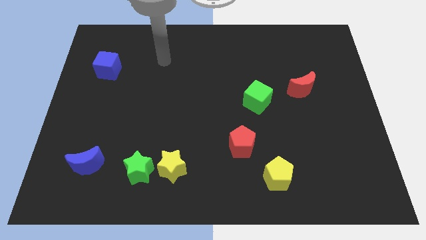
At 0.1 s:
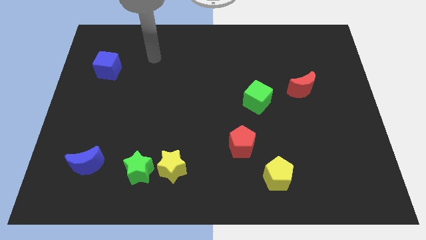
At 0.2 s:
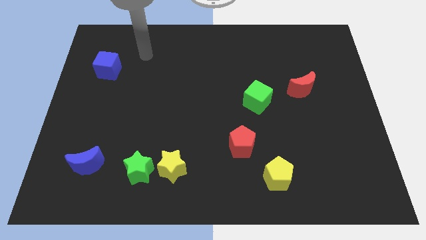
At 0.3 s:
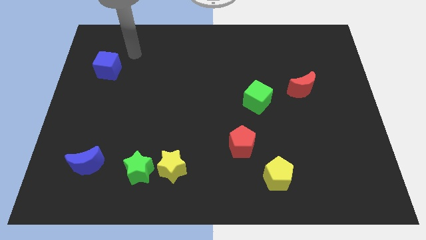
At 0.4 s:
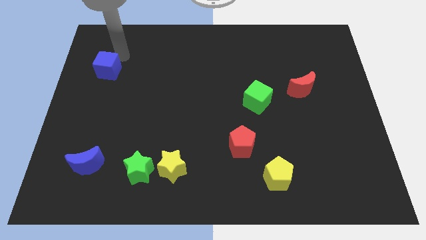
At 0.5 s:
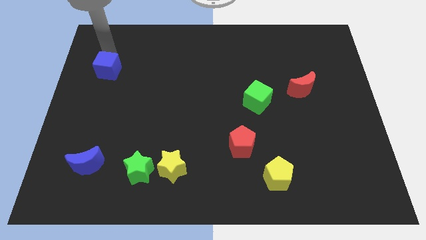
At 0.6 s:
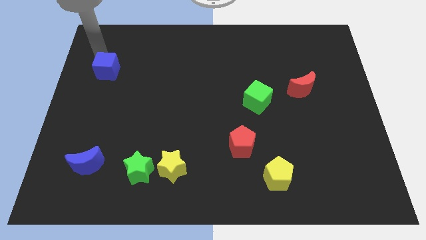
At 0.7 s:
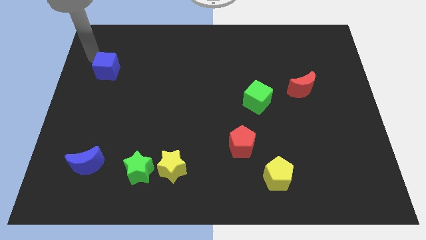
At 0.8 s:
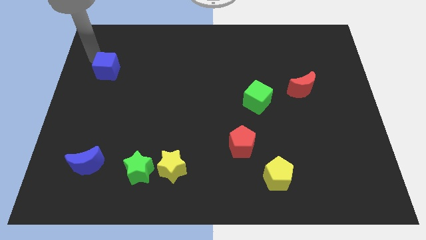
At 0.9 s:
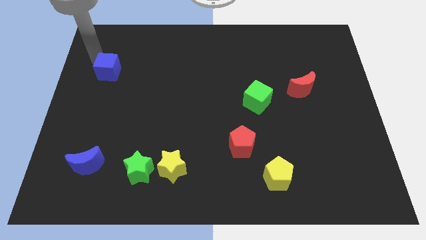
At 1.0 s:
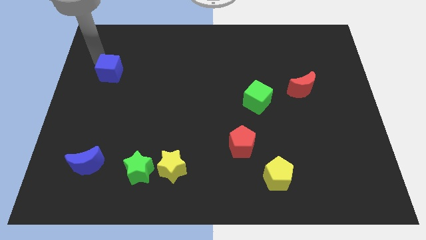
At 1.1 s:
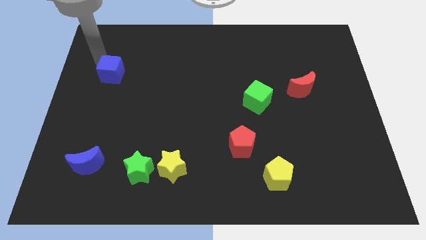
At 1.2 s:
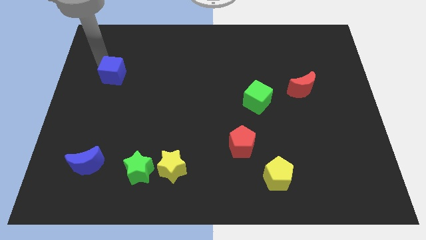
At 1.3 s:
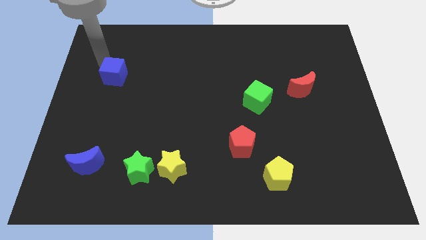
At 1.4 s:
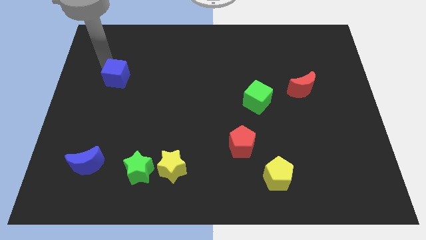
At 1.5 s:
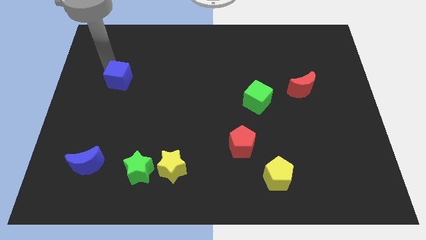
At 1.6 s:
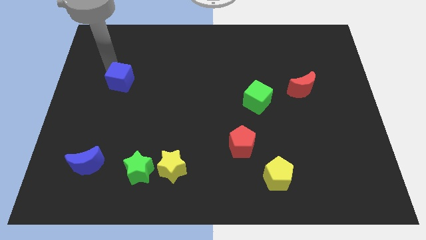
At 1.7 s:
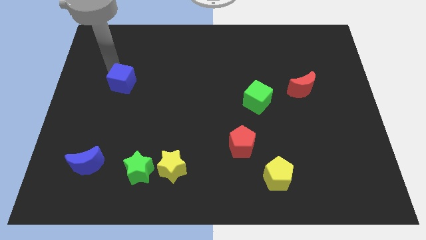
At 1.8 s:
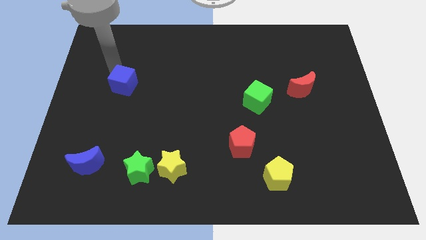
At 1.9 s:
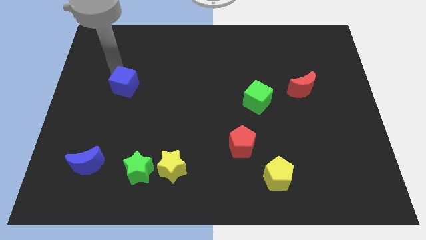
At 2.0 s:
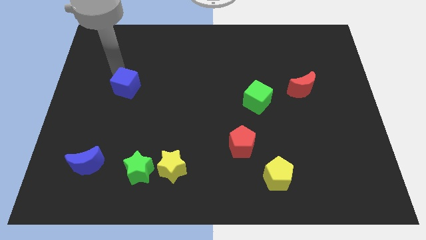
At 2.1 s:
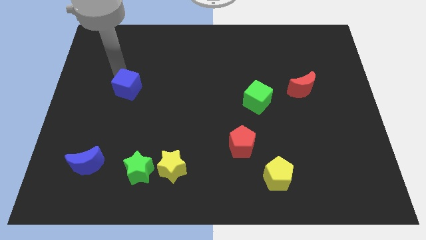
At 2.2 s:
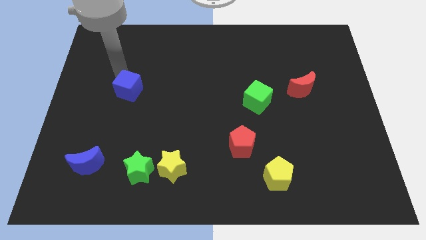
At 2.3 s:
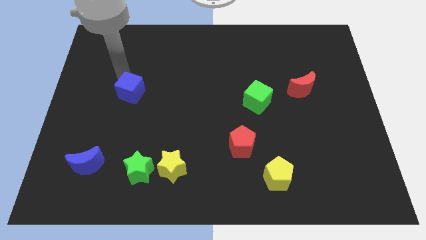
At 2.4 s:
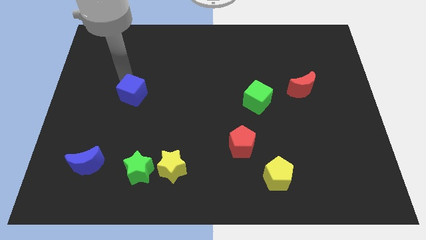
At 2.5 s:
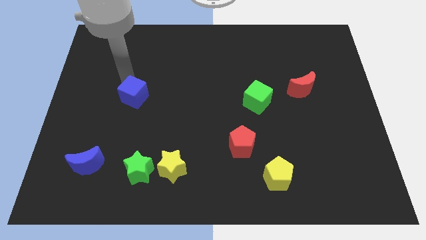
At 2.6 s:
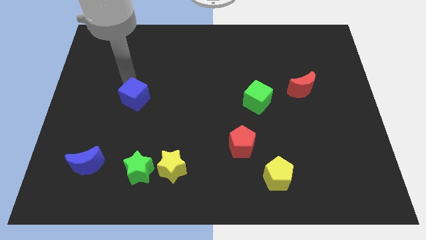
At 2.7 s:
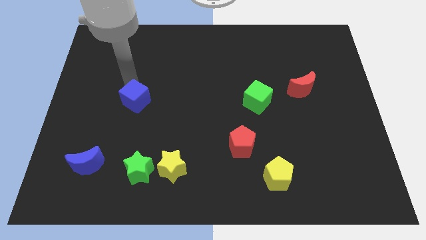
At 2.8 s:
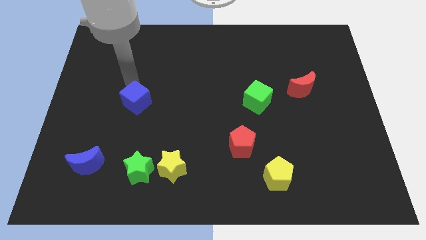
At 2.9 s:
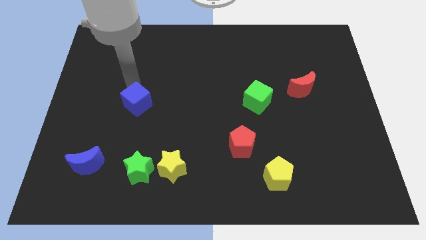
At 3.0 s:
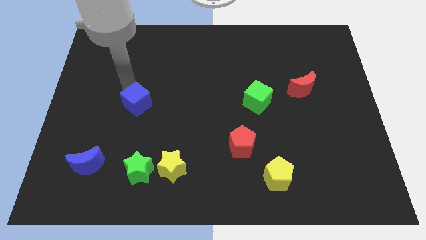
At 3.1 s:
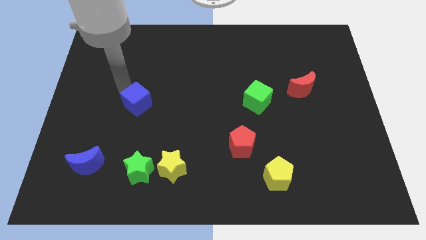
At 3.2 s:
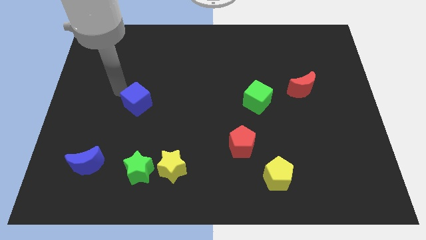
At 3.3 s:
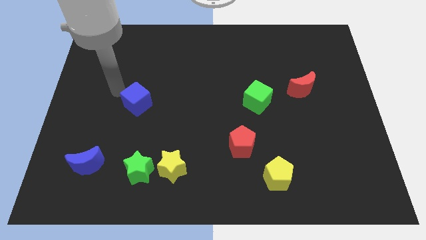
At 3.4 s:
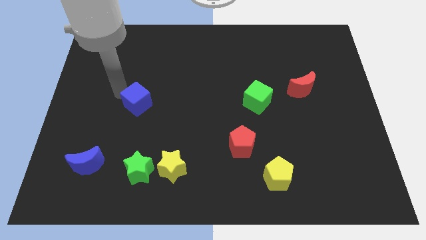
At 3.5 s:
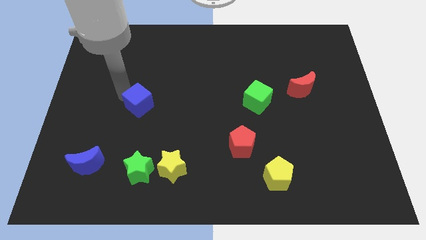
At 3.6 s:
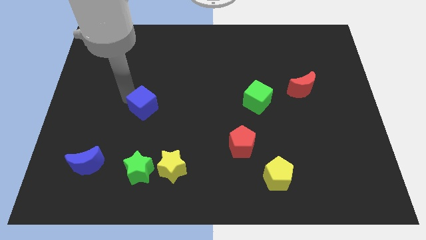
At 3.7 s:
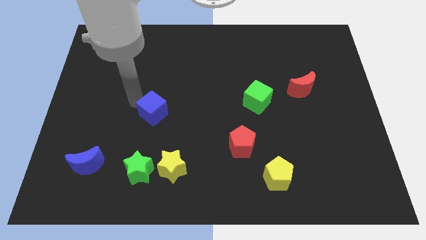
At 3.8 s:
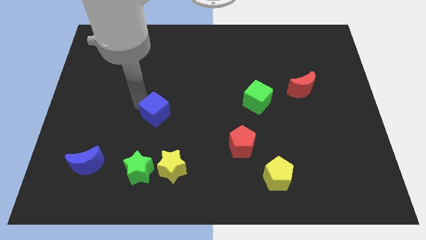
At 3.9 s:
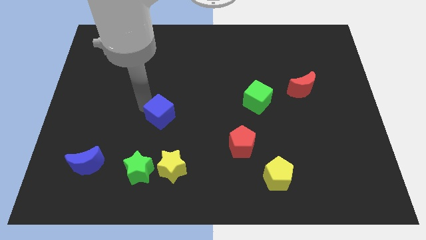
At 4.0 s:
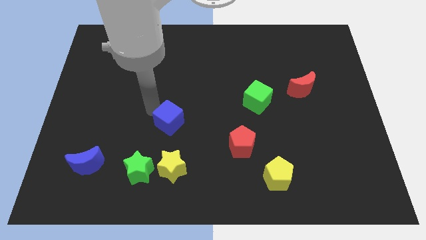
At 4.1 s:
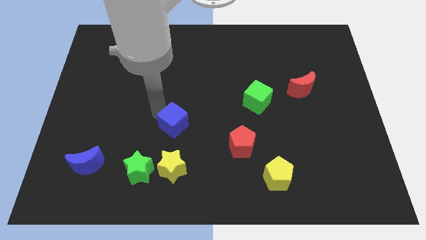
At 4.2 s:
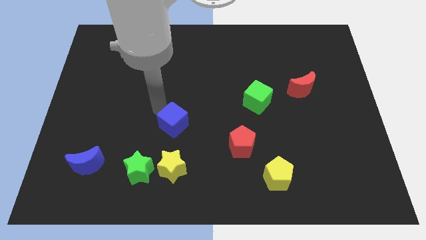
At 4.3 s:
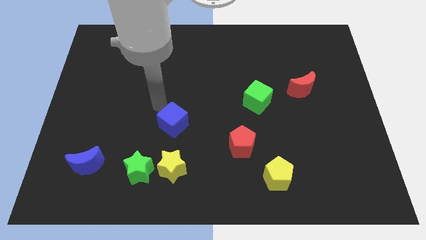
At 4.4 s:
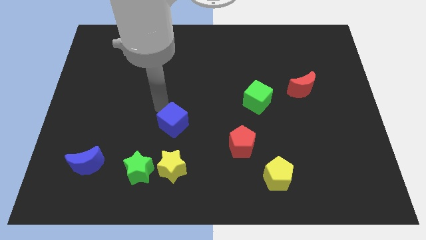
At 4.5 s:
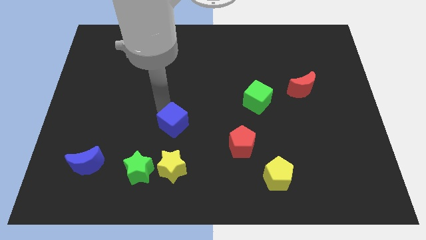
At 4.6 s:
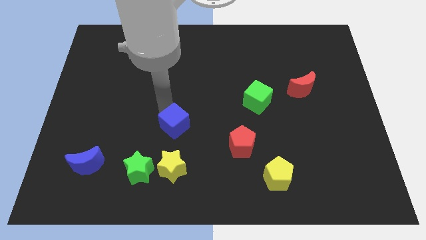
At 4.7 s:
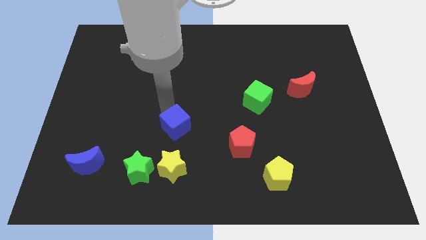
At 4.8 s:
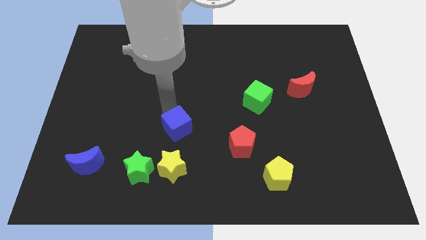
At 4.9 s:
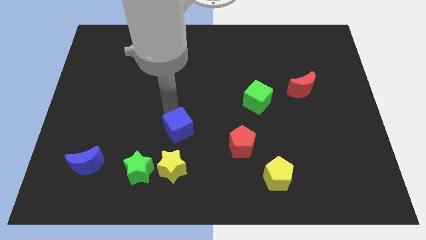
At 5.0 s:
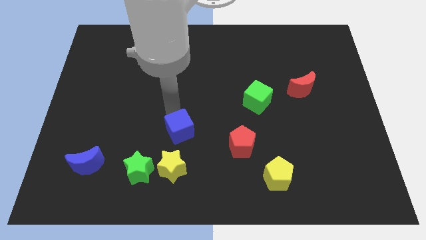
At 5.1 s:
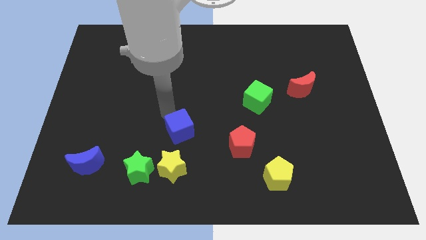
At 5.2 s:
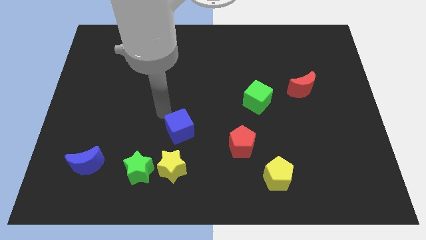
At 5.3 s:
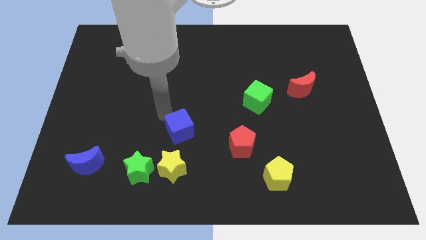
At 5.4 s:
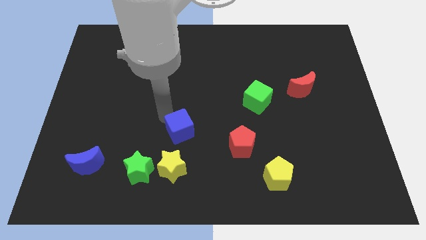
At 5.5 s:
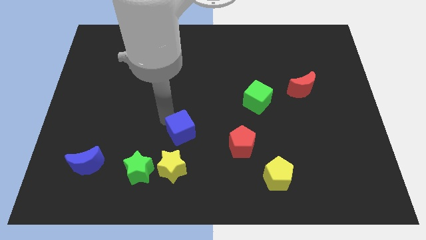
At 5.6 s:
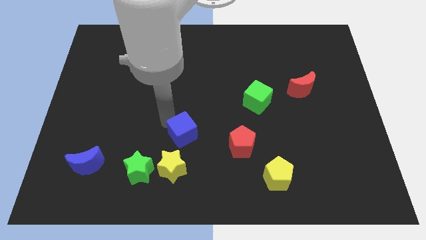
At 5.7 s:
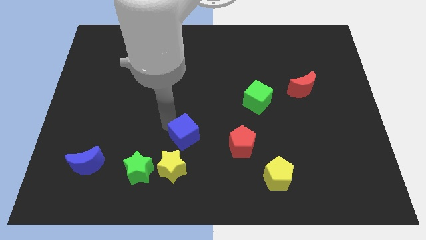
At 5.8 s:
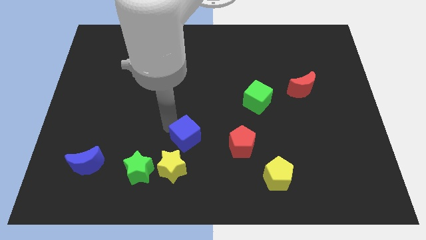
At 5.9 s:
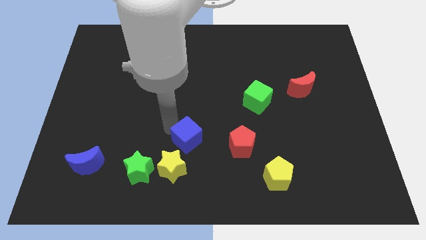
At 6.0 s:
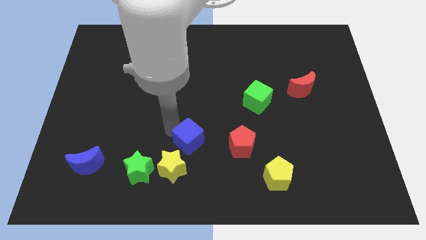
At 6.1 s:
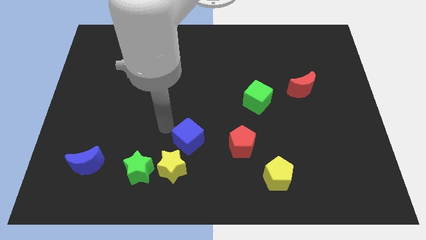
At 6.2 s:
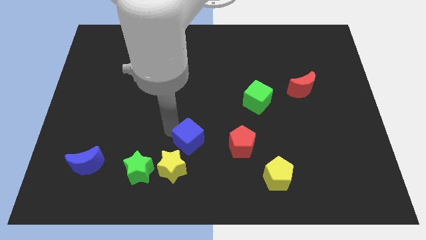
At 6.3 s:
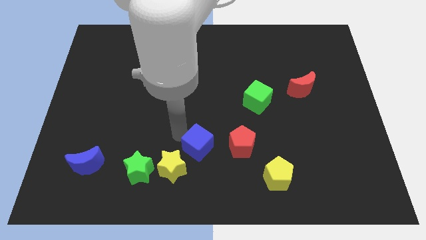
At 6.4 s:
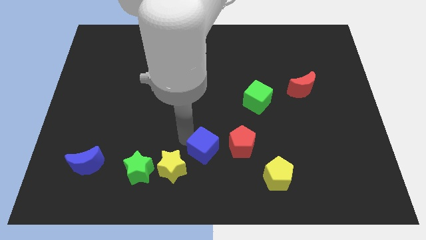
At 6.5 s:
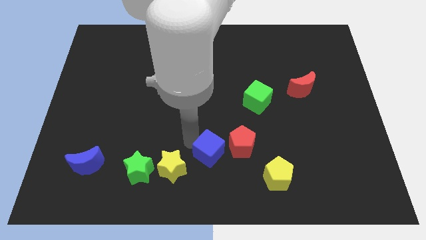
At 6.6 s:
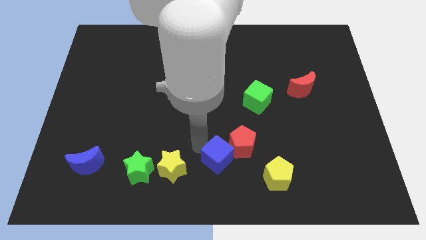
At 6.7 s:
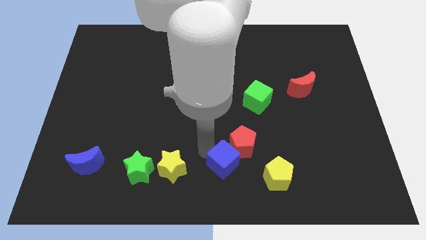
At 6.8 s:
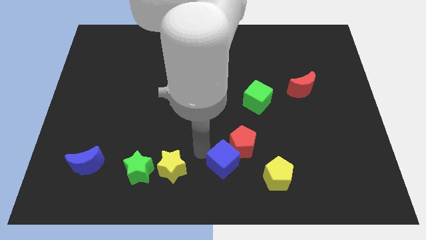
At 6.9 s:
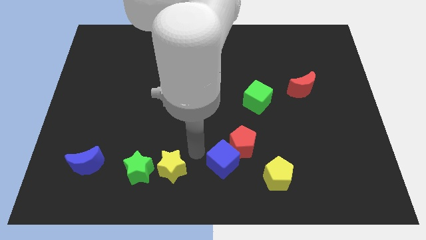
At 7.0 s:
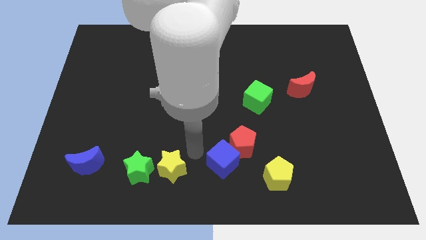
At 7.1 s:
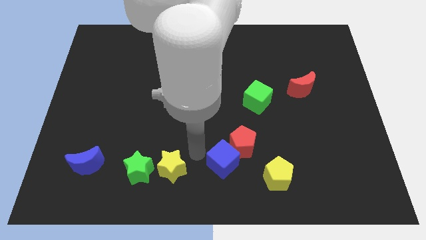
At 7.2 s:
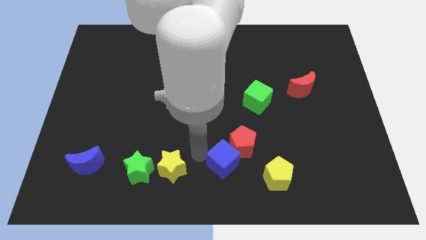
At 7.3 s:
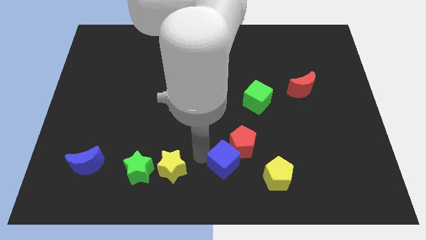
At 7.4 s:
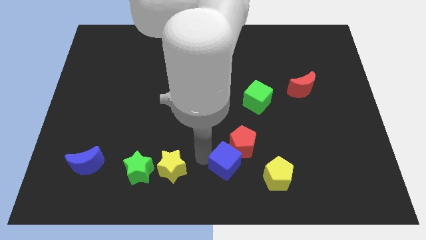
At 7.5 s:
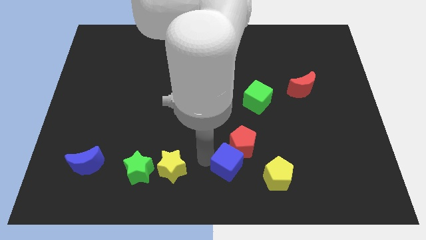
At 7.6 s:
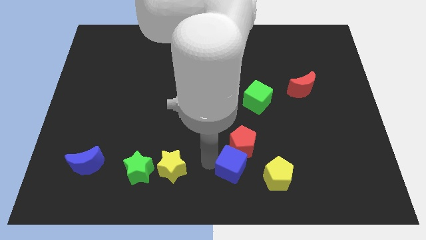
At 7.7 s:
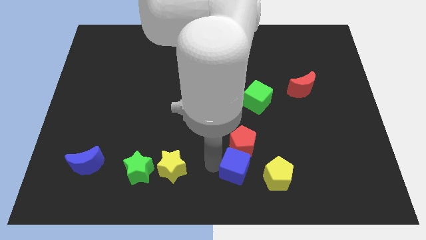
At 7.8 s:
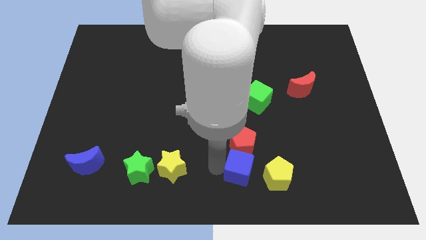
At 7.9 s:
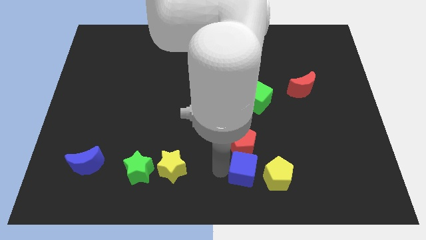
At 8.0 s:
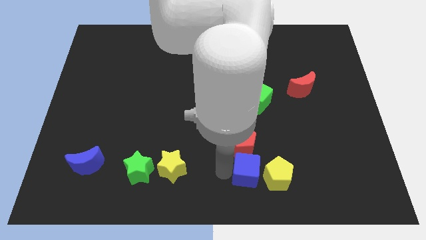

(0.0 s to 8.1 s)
slide the blue cube next to the yellow pentagon
